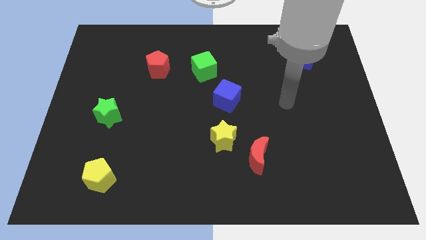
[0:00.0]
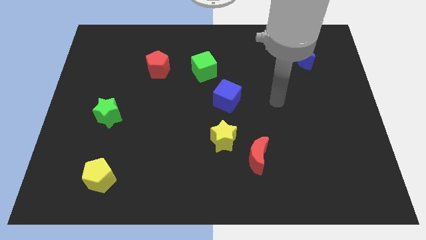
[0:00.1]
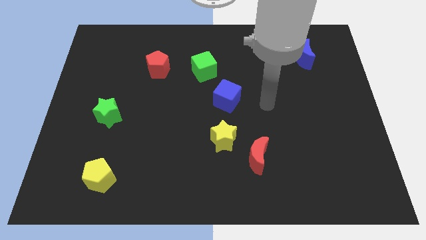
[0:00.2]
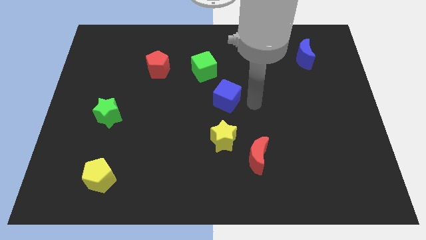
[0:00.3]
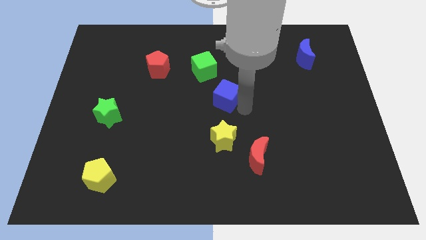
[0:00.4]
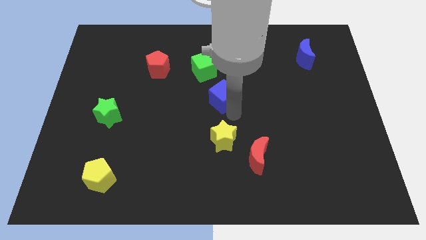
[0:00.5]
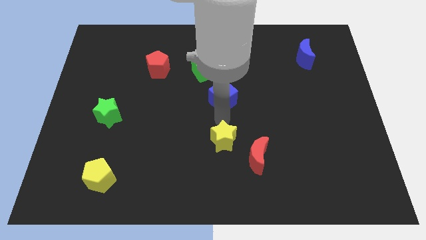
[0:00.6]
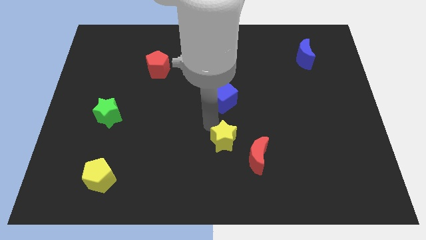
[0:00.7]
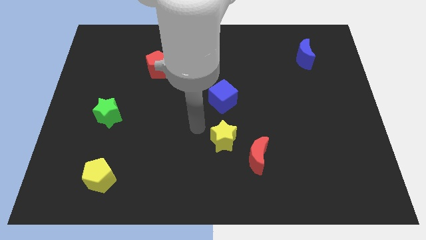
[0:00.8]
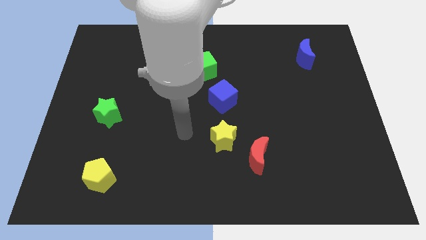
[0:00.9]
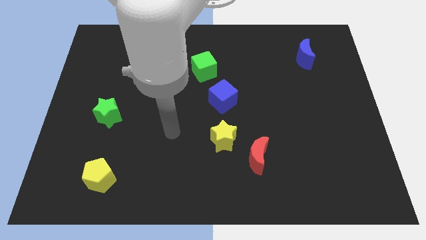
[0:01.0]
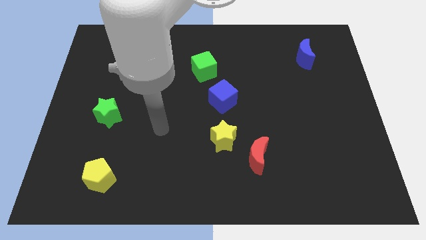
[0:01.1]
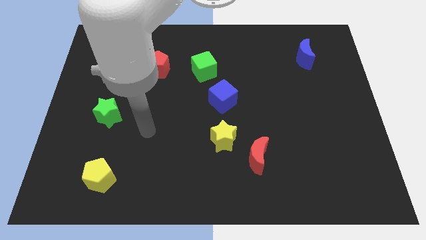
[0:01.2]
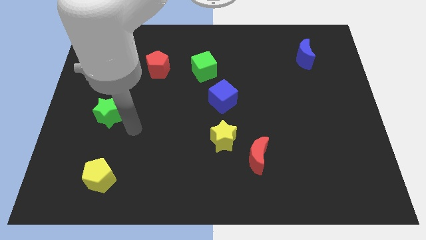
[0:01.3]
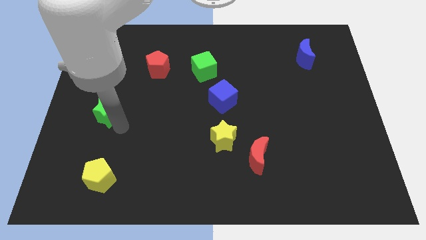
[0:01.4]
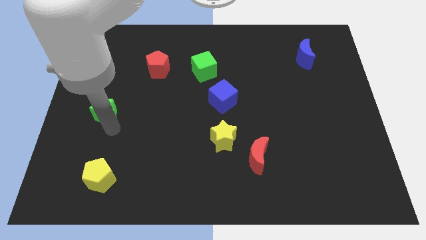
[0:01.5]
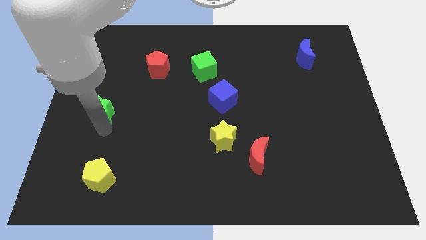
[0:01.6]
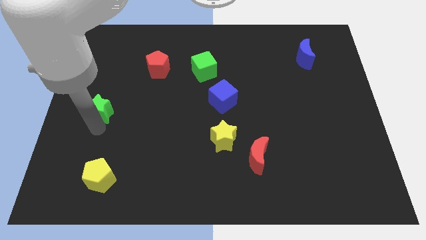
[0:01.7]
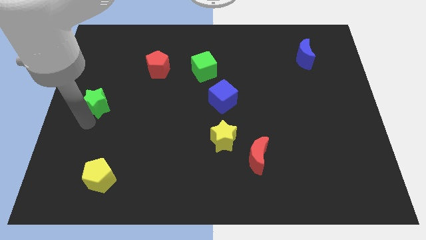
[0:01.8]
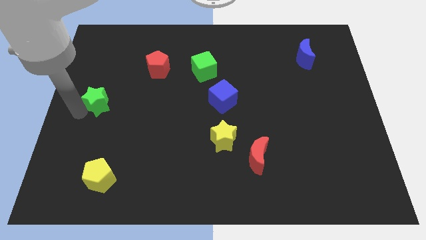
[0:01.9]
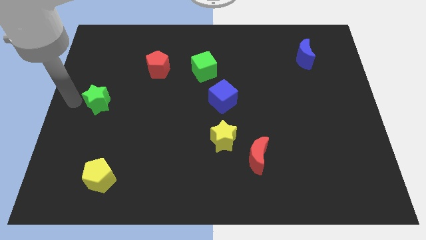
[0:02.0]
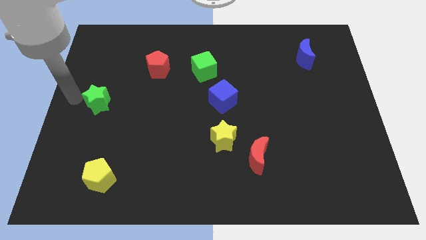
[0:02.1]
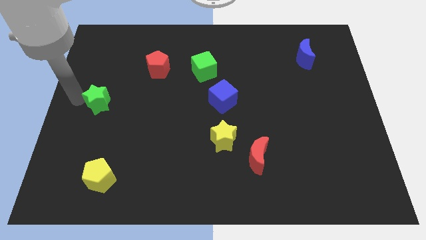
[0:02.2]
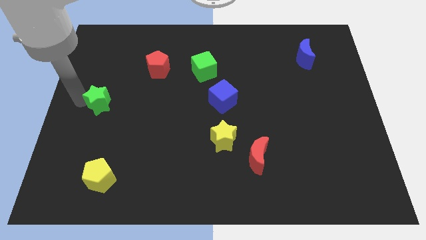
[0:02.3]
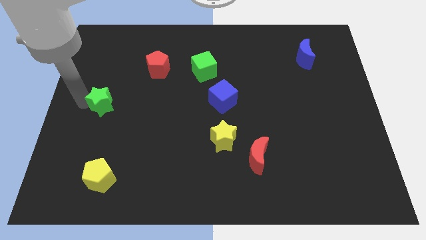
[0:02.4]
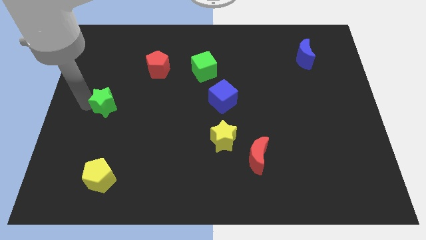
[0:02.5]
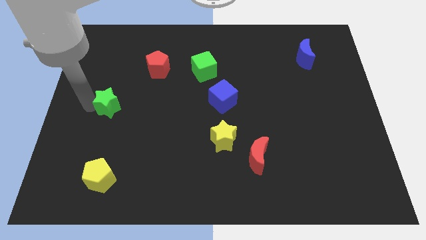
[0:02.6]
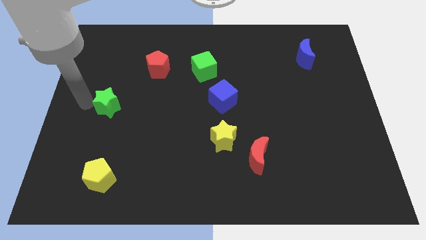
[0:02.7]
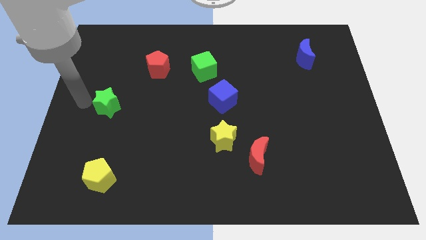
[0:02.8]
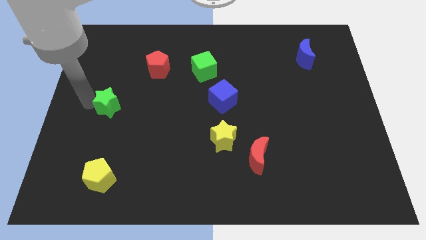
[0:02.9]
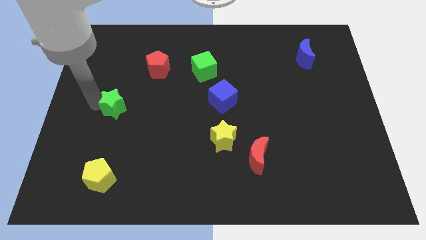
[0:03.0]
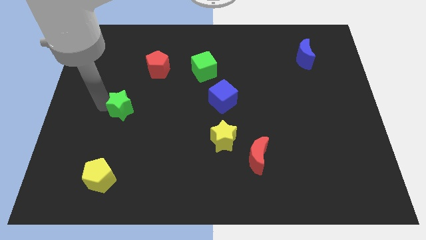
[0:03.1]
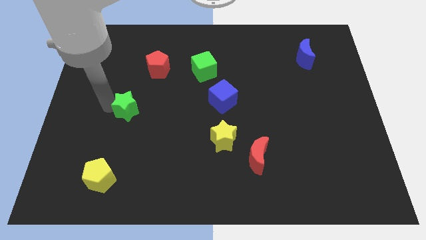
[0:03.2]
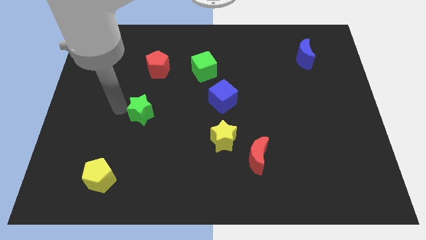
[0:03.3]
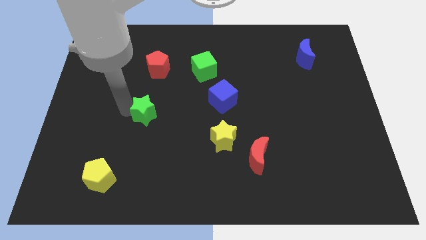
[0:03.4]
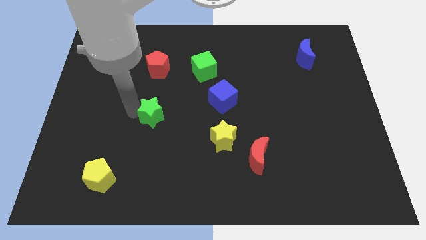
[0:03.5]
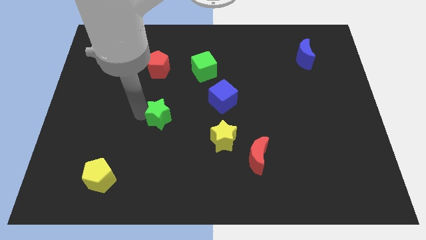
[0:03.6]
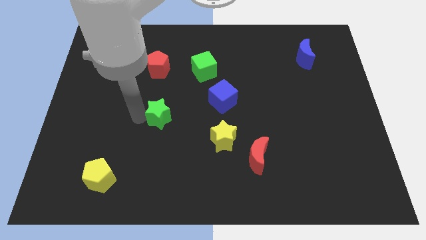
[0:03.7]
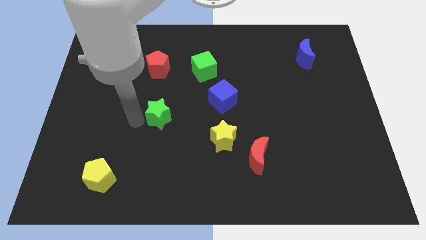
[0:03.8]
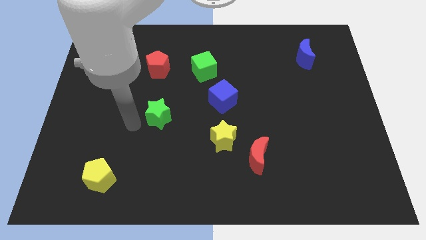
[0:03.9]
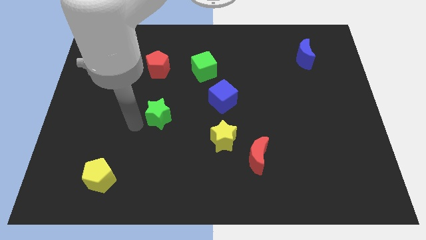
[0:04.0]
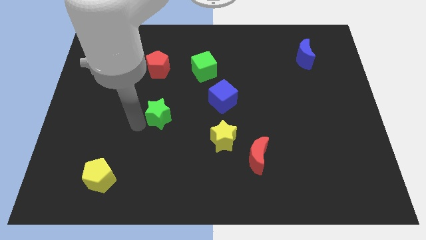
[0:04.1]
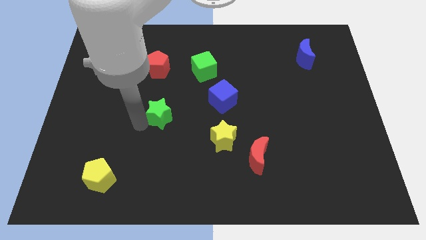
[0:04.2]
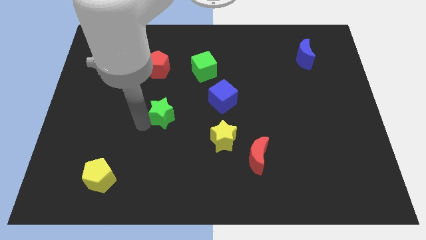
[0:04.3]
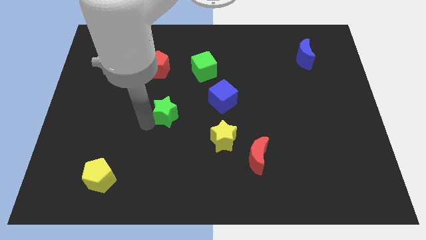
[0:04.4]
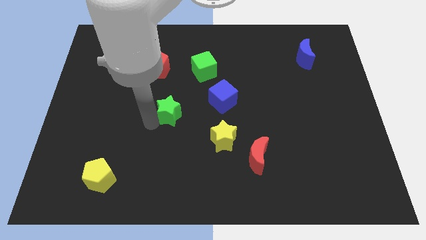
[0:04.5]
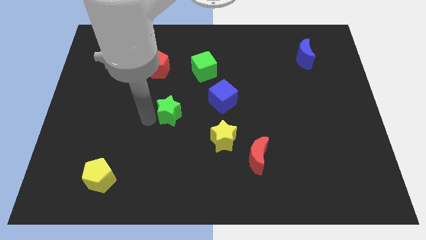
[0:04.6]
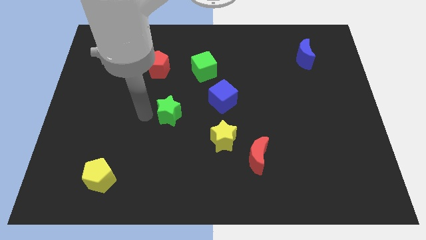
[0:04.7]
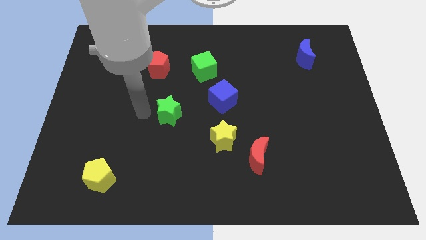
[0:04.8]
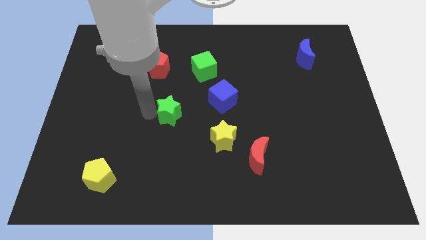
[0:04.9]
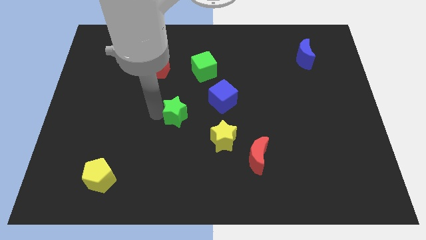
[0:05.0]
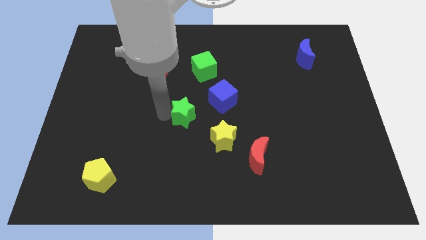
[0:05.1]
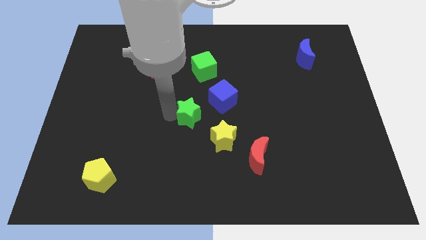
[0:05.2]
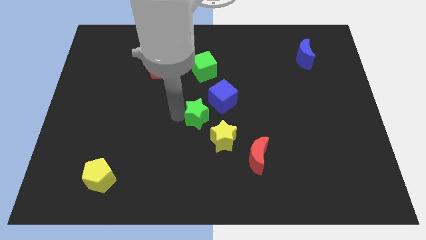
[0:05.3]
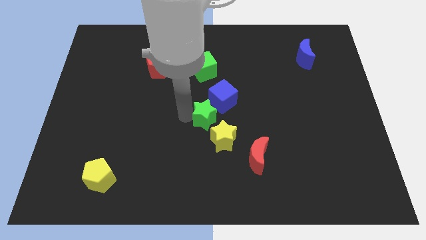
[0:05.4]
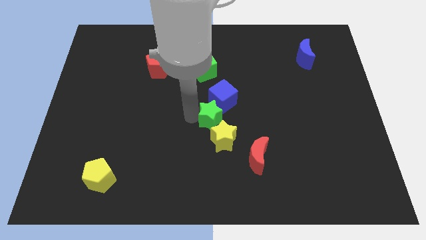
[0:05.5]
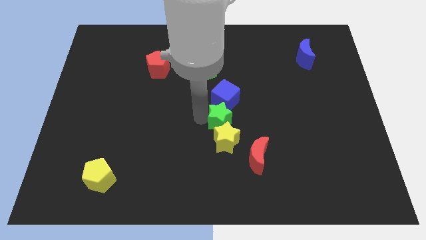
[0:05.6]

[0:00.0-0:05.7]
move the green star diagonally up and to the right of the yellow star
